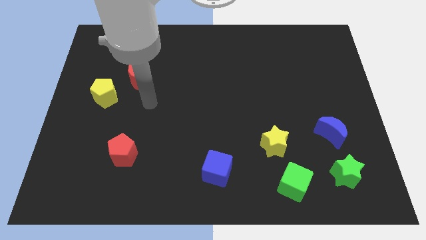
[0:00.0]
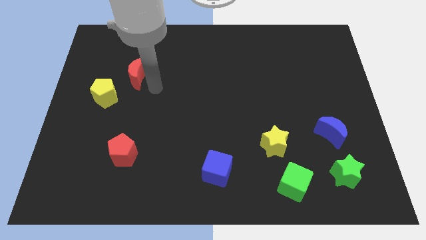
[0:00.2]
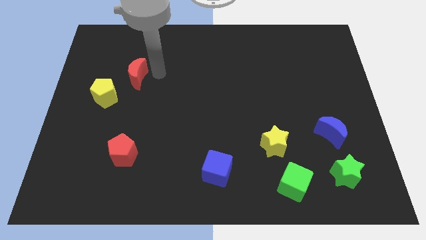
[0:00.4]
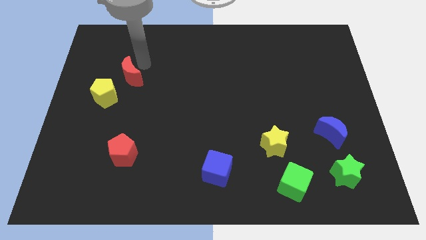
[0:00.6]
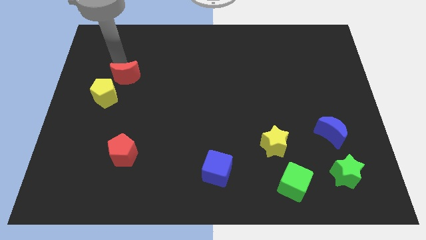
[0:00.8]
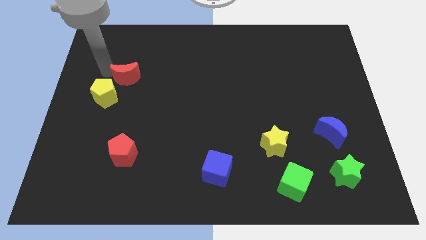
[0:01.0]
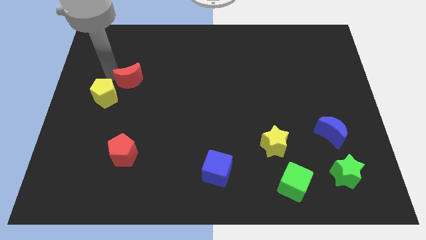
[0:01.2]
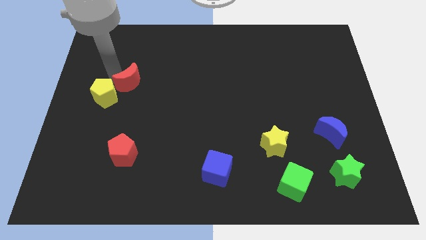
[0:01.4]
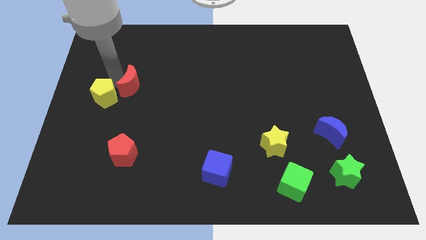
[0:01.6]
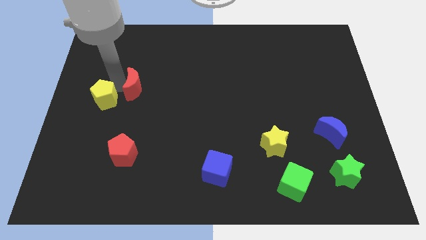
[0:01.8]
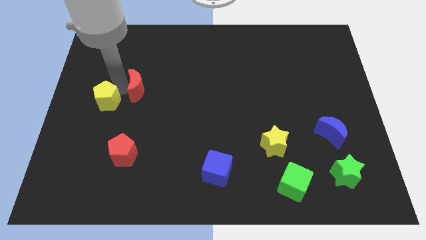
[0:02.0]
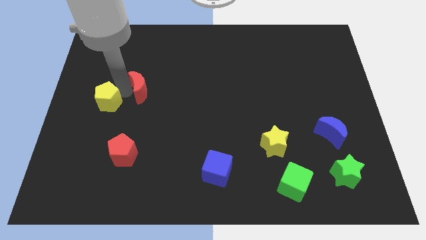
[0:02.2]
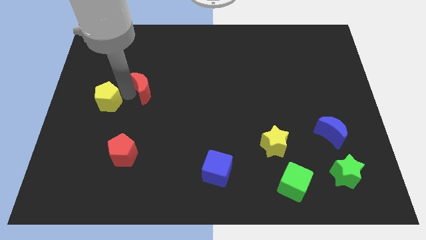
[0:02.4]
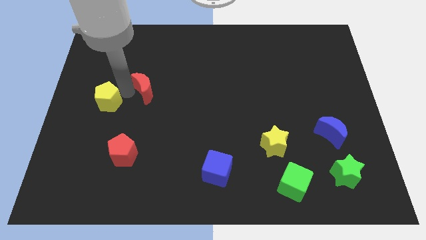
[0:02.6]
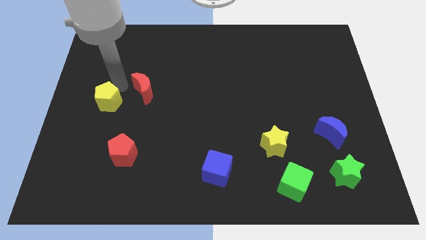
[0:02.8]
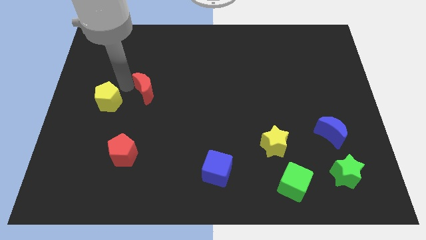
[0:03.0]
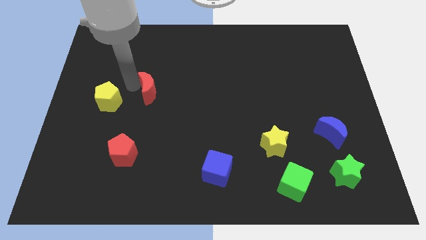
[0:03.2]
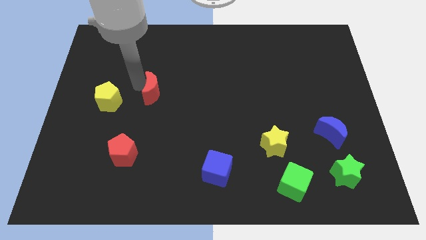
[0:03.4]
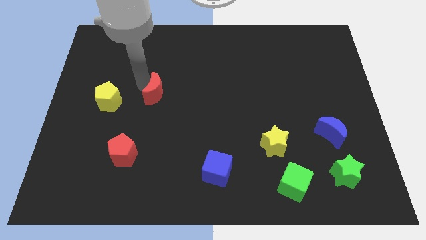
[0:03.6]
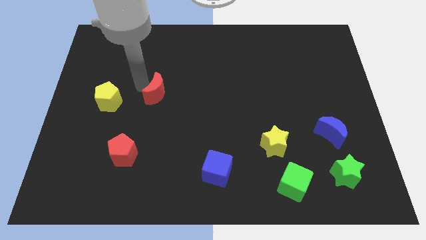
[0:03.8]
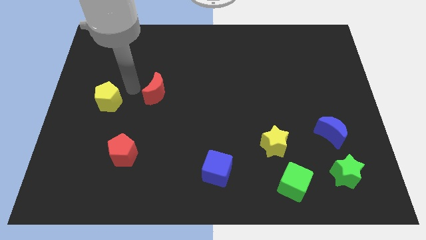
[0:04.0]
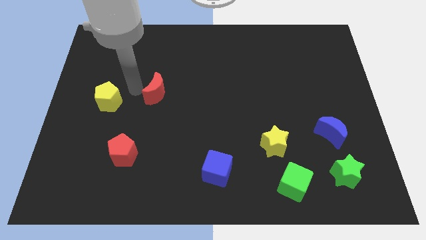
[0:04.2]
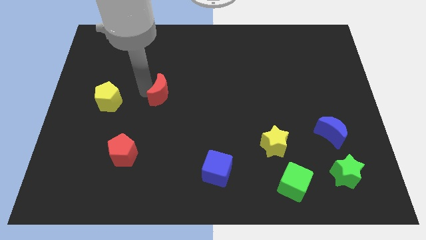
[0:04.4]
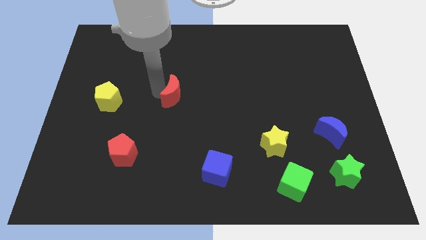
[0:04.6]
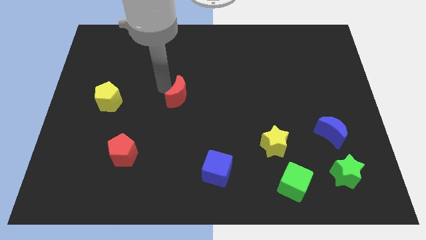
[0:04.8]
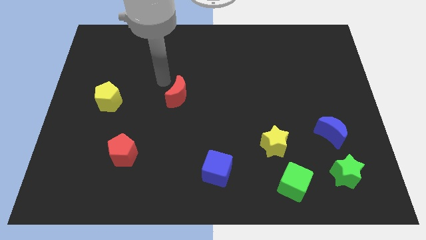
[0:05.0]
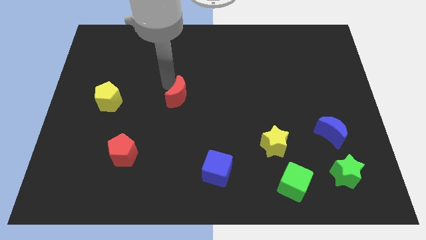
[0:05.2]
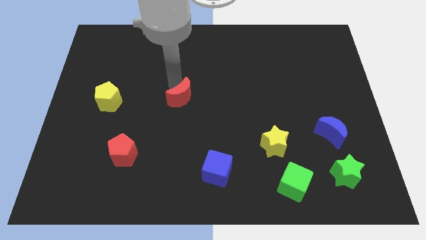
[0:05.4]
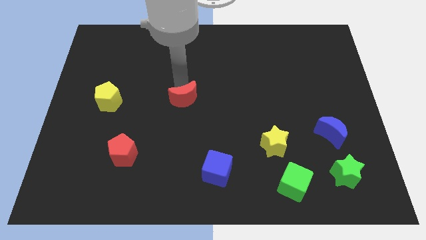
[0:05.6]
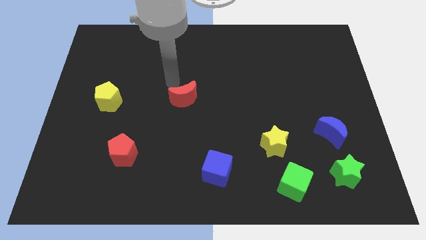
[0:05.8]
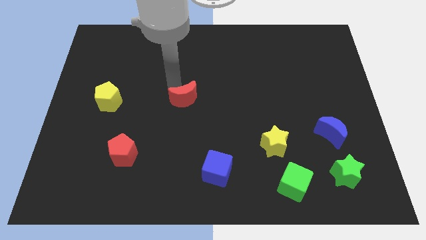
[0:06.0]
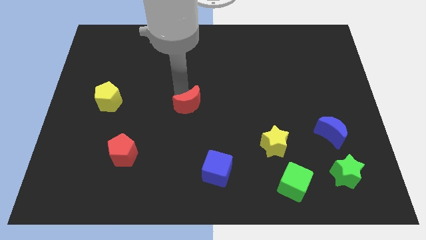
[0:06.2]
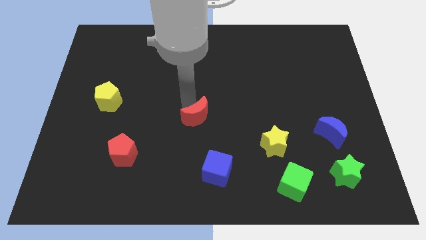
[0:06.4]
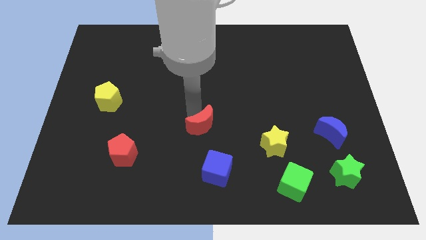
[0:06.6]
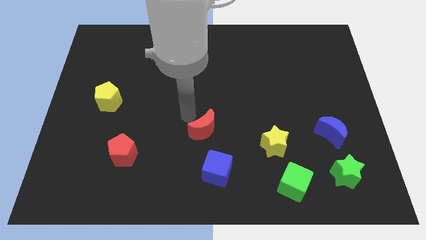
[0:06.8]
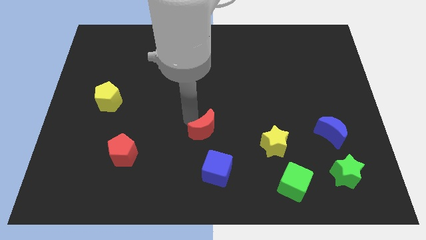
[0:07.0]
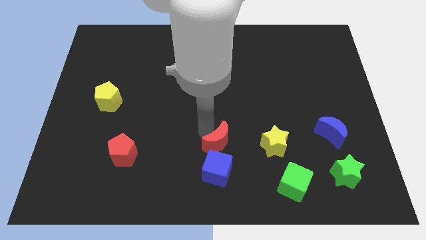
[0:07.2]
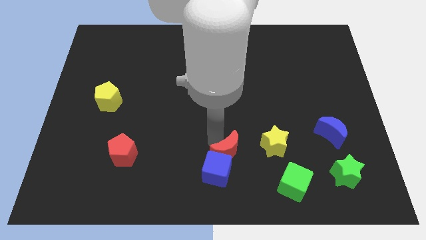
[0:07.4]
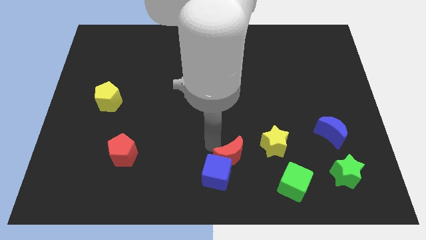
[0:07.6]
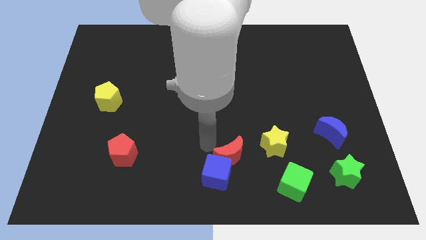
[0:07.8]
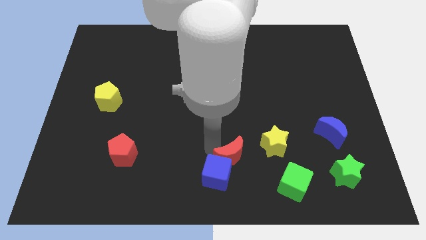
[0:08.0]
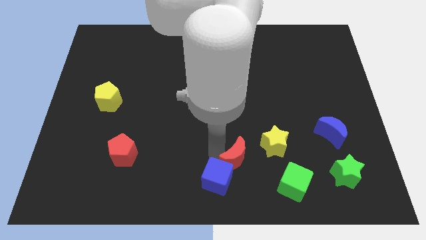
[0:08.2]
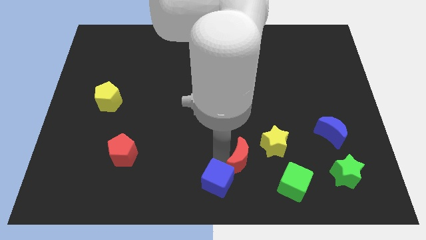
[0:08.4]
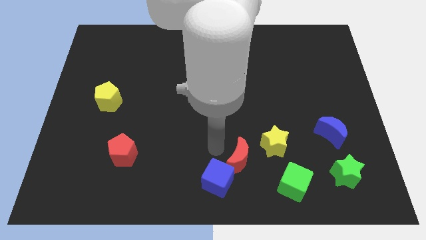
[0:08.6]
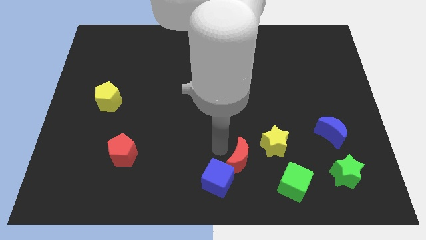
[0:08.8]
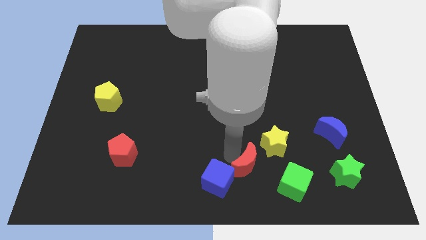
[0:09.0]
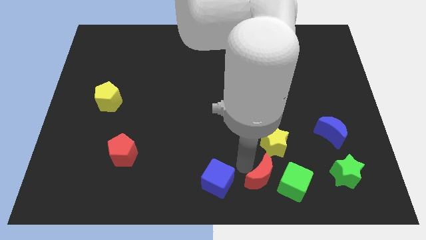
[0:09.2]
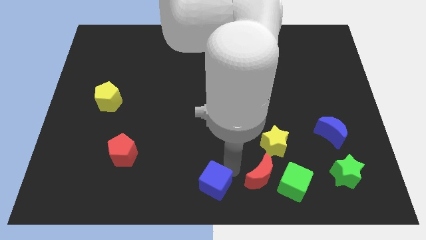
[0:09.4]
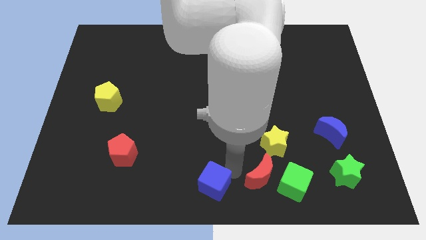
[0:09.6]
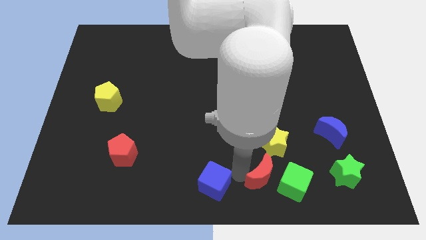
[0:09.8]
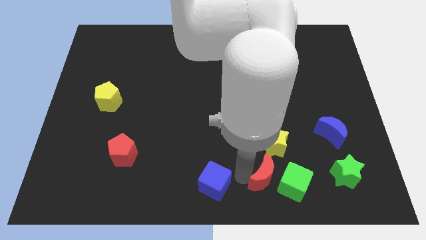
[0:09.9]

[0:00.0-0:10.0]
slide the red moon close to the green cube

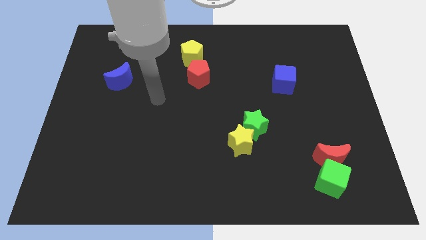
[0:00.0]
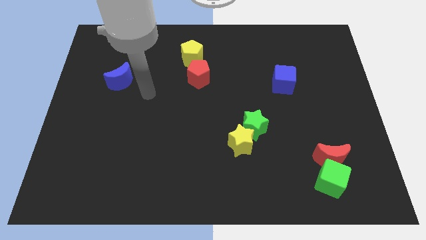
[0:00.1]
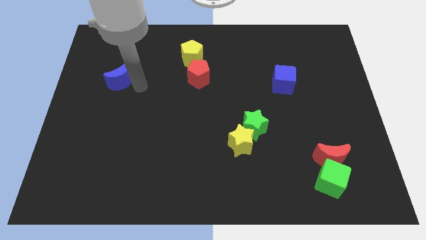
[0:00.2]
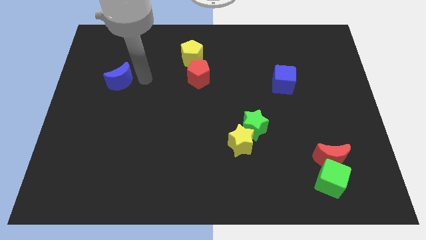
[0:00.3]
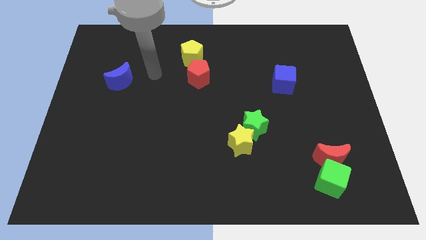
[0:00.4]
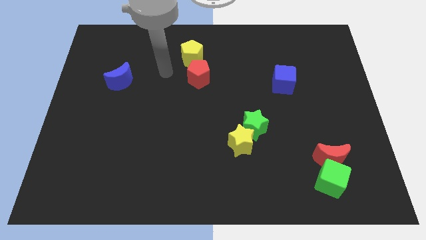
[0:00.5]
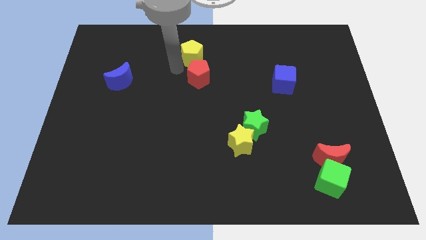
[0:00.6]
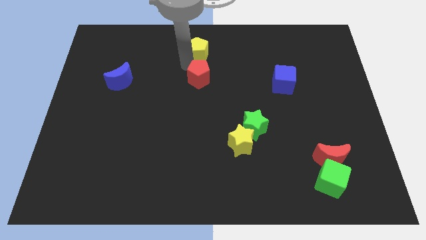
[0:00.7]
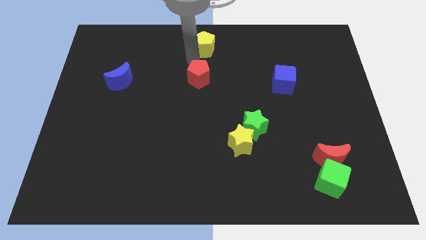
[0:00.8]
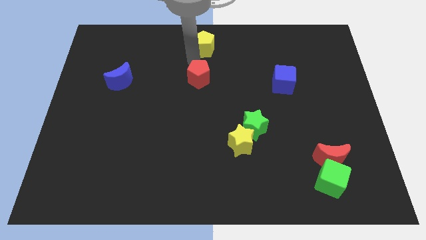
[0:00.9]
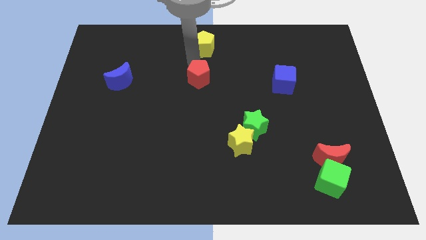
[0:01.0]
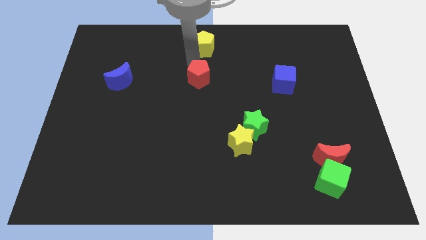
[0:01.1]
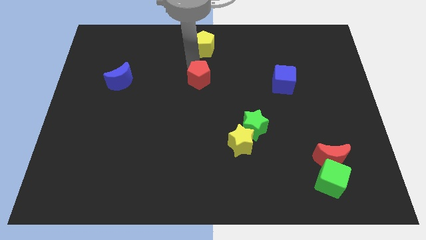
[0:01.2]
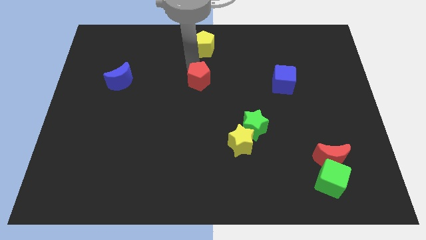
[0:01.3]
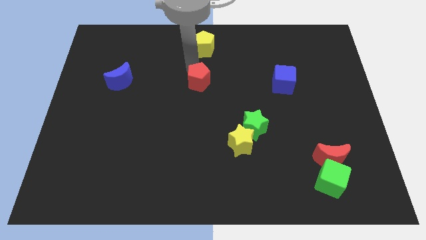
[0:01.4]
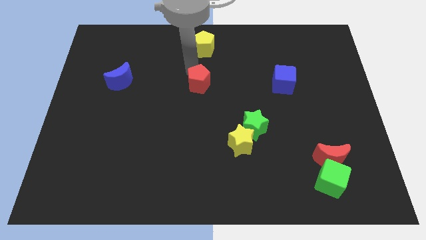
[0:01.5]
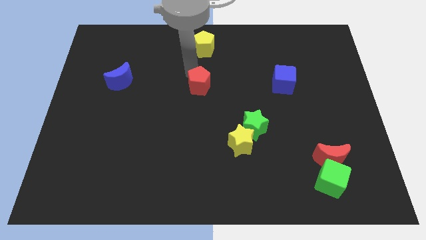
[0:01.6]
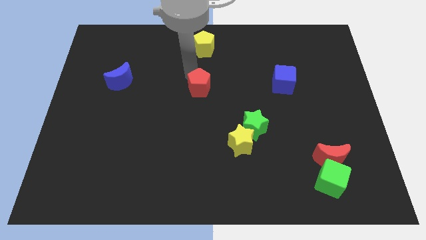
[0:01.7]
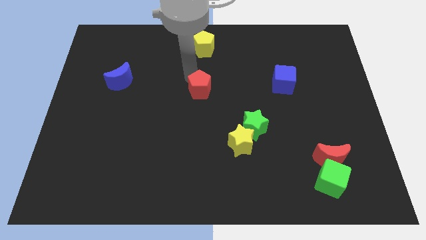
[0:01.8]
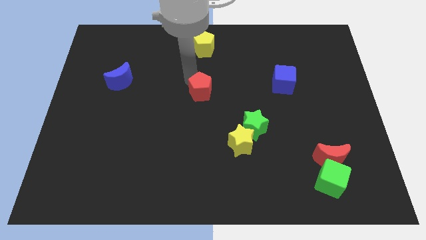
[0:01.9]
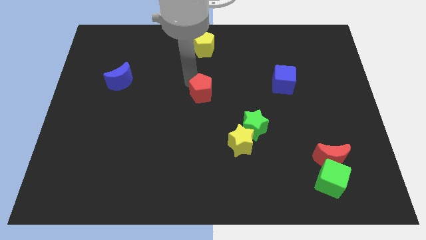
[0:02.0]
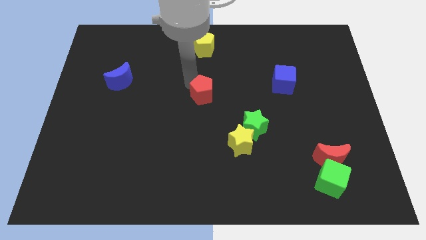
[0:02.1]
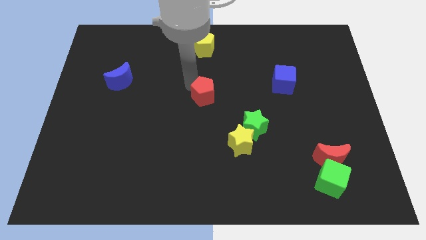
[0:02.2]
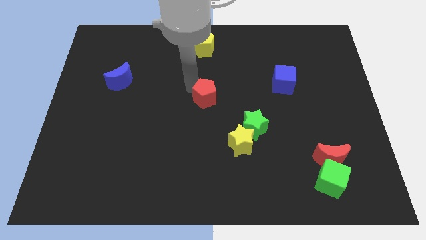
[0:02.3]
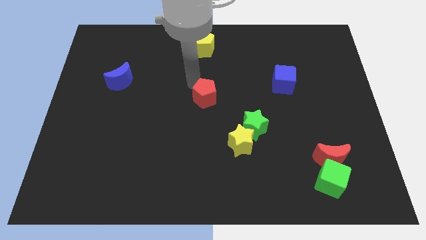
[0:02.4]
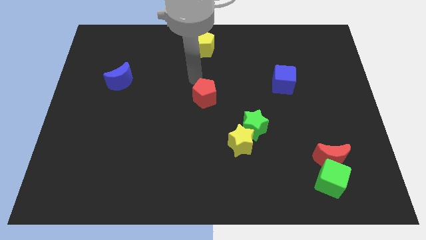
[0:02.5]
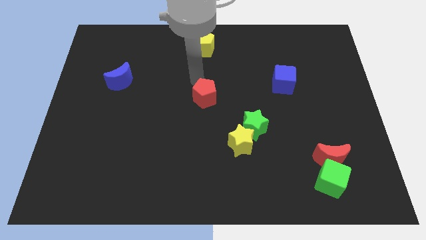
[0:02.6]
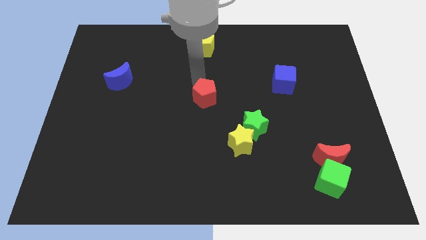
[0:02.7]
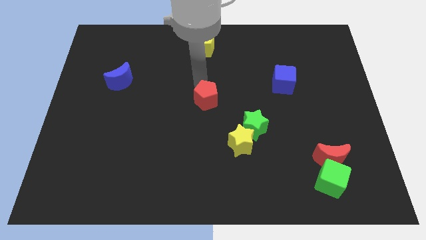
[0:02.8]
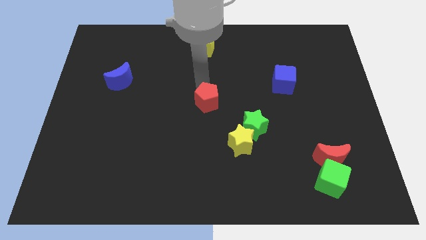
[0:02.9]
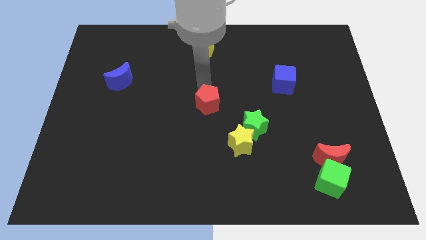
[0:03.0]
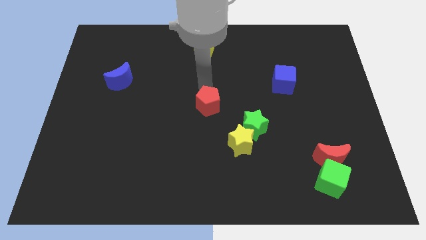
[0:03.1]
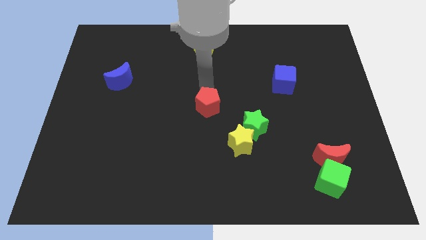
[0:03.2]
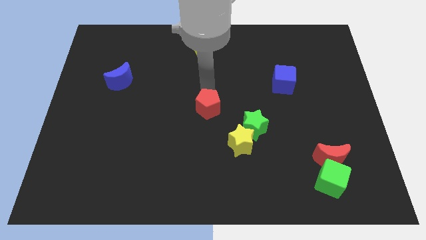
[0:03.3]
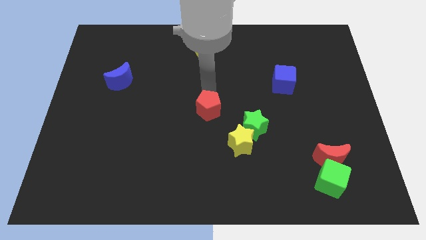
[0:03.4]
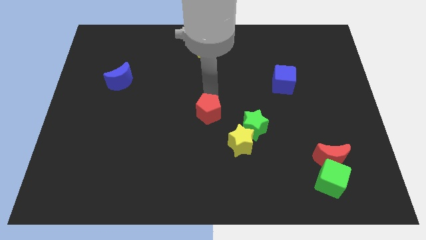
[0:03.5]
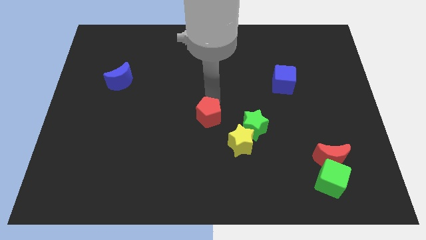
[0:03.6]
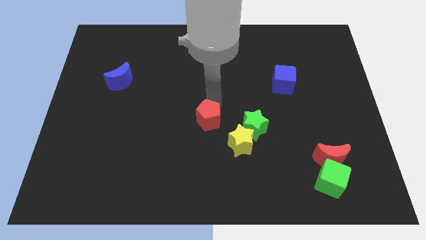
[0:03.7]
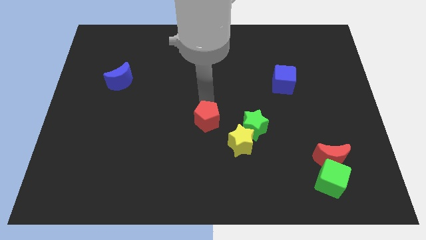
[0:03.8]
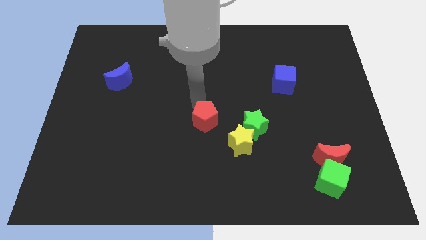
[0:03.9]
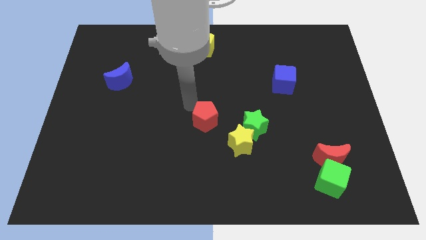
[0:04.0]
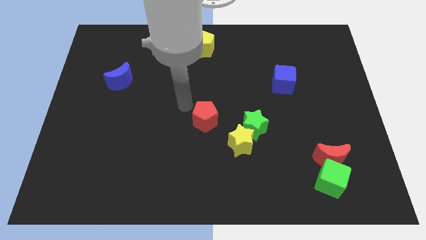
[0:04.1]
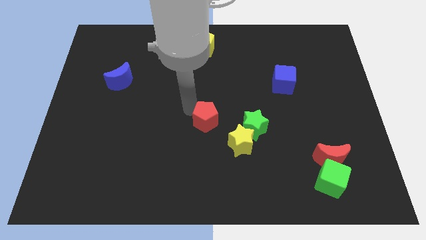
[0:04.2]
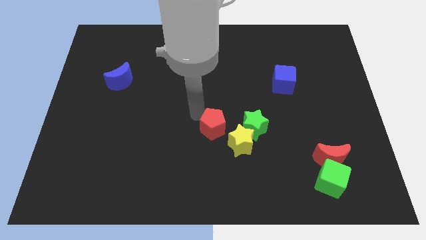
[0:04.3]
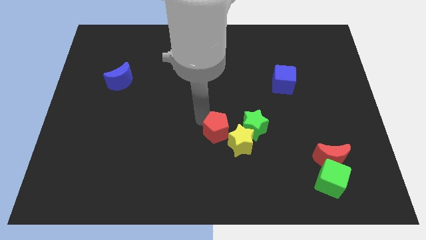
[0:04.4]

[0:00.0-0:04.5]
move the red pentagon towards the yellow star
